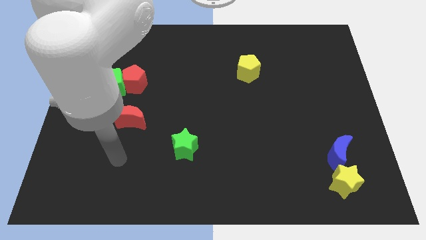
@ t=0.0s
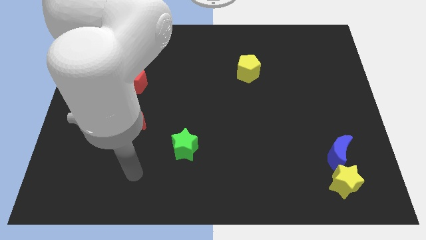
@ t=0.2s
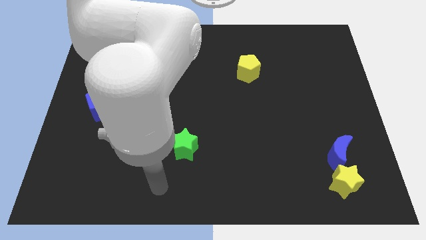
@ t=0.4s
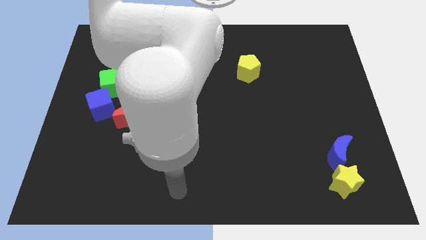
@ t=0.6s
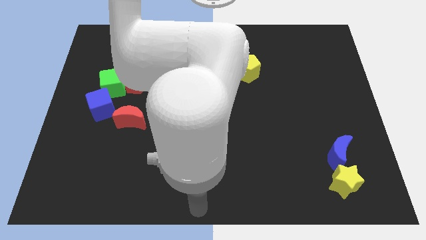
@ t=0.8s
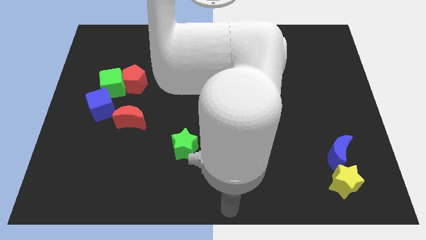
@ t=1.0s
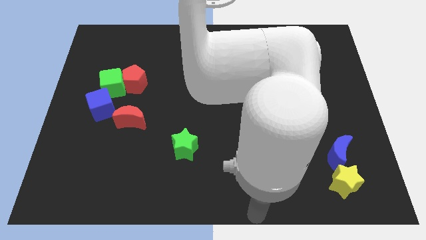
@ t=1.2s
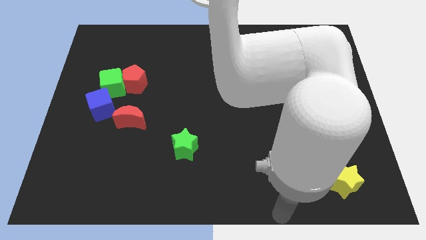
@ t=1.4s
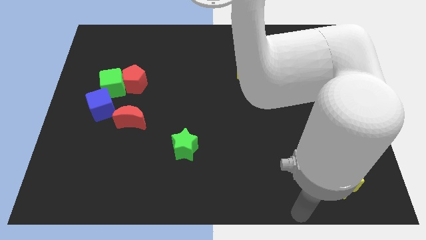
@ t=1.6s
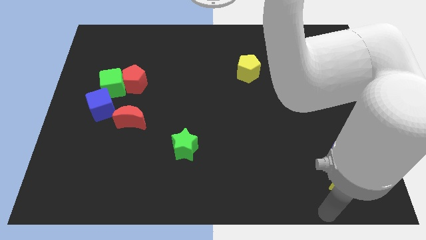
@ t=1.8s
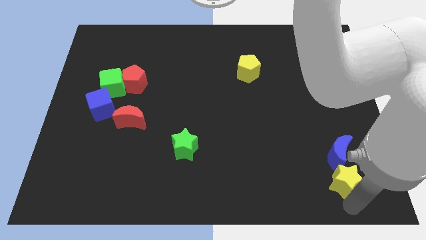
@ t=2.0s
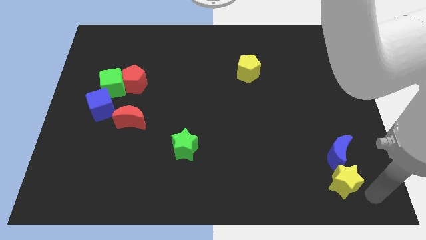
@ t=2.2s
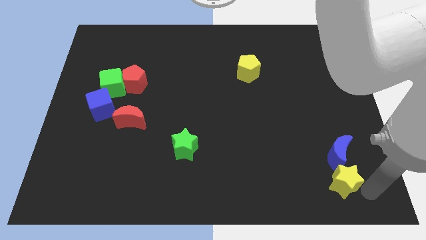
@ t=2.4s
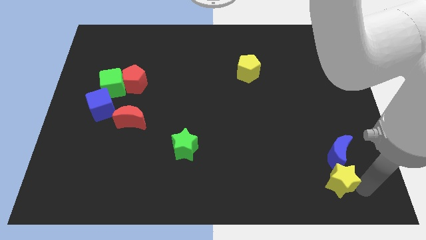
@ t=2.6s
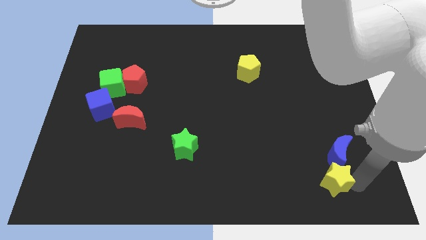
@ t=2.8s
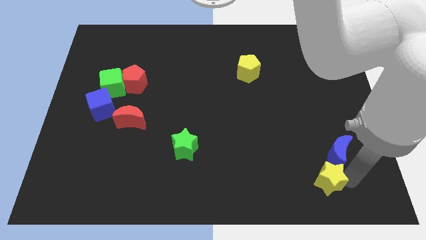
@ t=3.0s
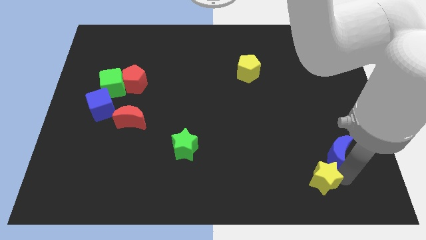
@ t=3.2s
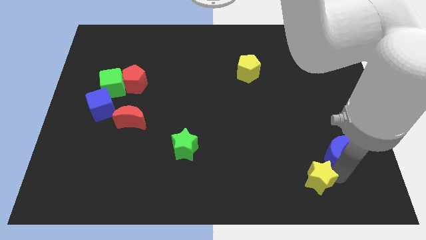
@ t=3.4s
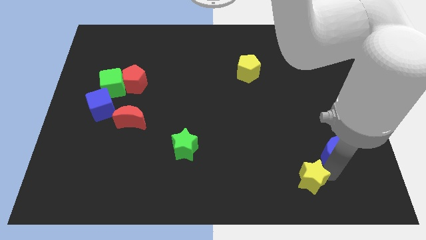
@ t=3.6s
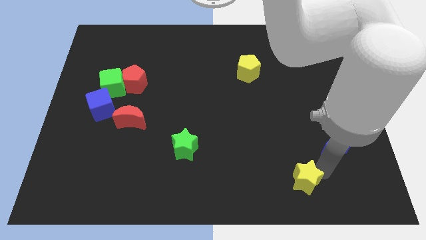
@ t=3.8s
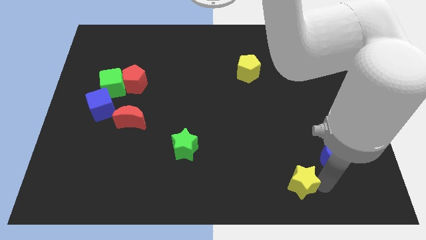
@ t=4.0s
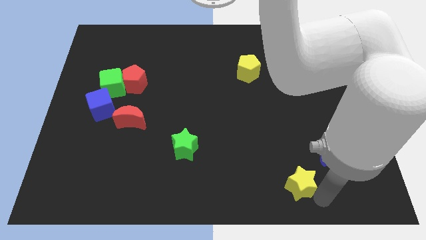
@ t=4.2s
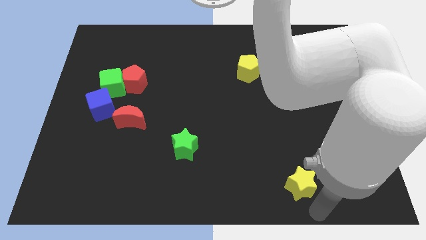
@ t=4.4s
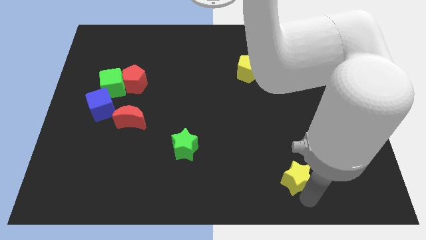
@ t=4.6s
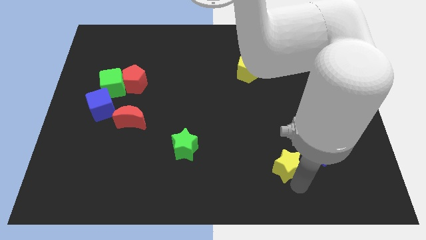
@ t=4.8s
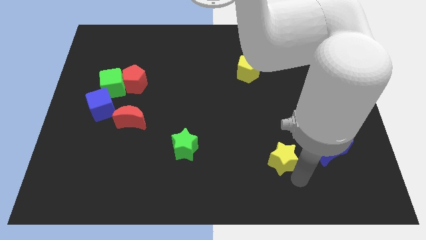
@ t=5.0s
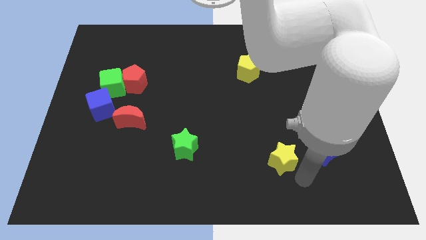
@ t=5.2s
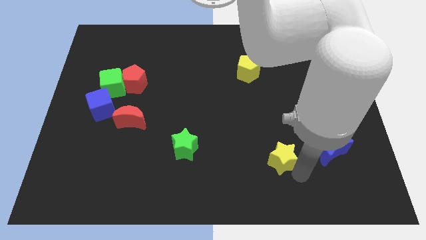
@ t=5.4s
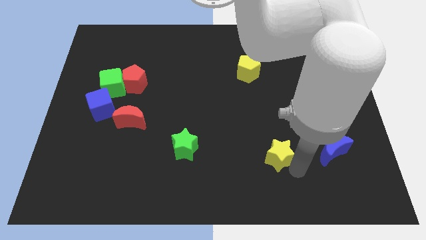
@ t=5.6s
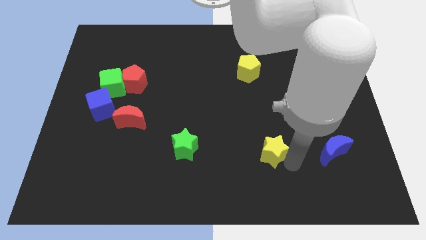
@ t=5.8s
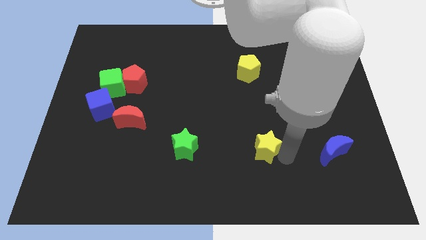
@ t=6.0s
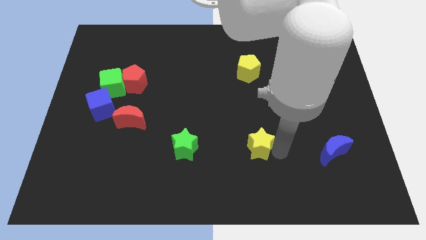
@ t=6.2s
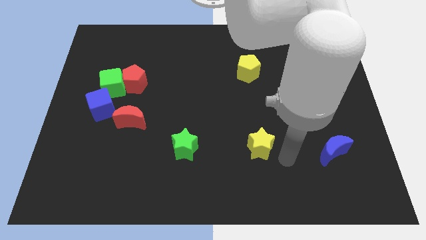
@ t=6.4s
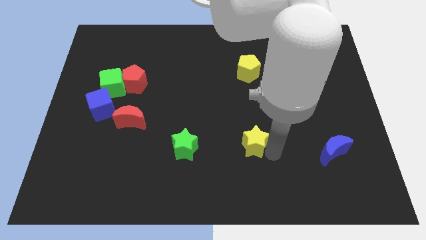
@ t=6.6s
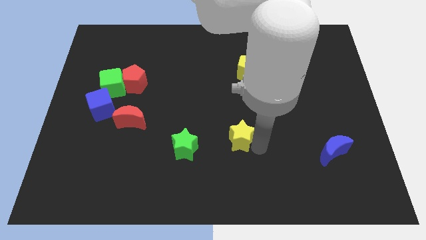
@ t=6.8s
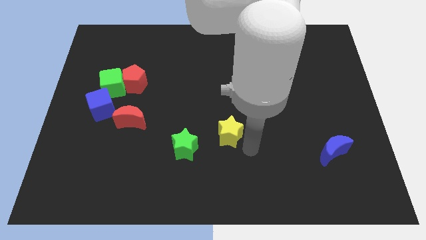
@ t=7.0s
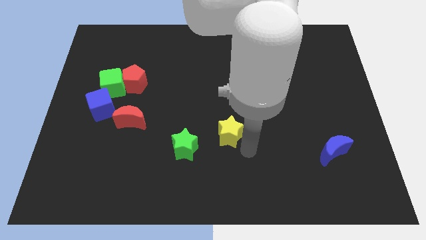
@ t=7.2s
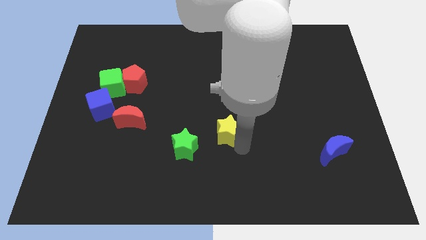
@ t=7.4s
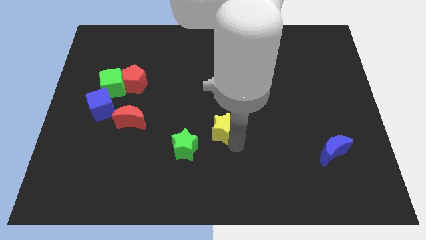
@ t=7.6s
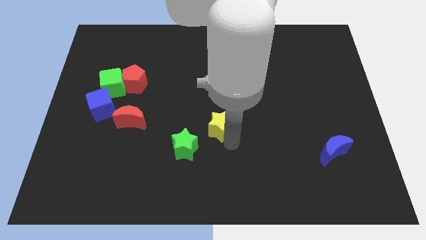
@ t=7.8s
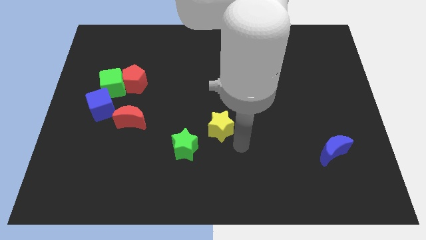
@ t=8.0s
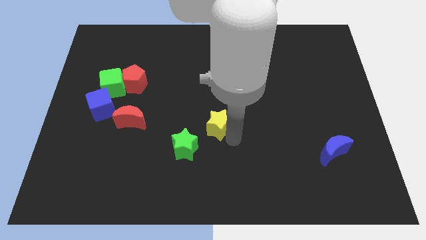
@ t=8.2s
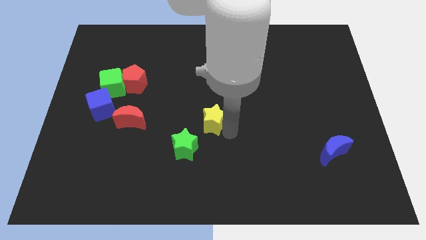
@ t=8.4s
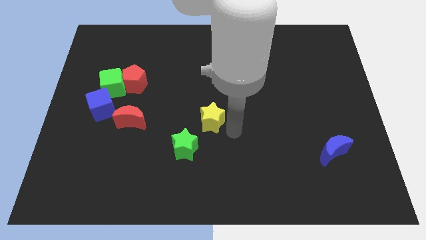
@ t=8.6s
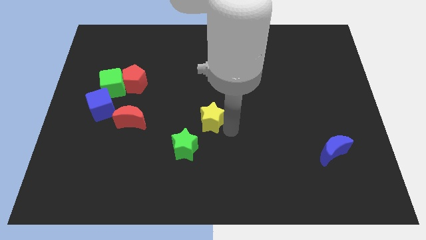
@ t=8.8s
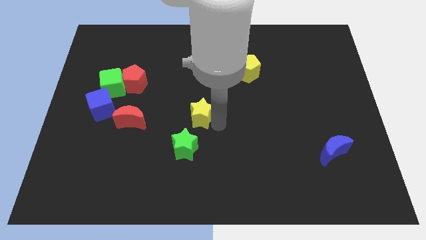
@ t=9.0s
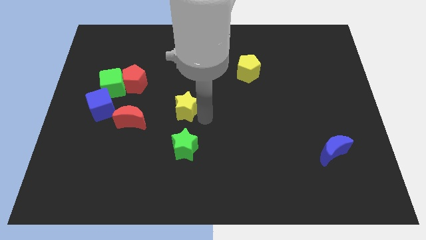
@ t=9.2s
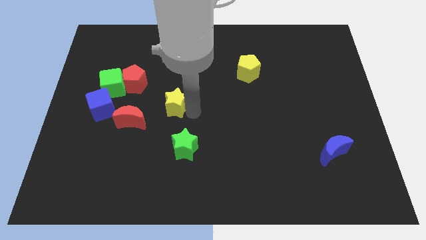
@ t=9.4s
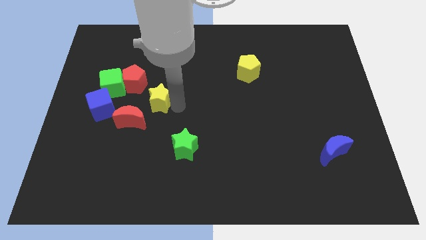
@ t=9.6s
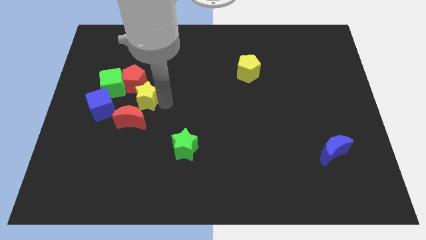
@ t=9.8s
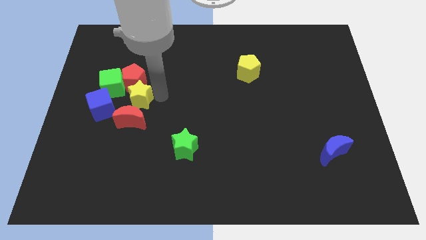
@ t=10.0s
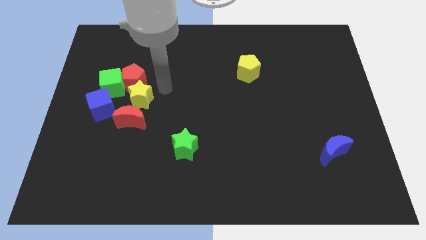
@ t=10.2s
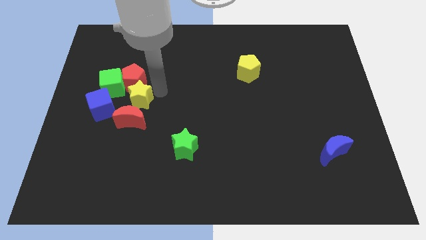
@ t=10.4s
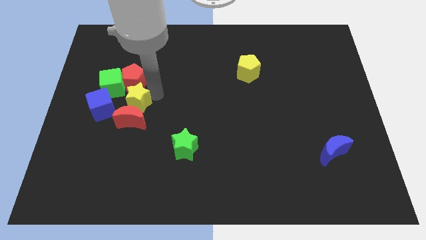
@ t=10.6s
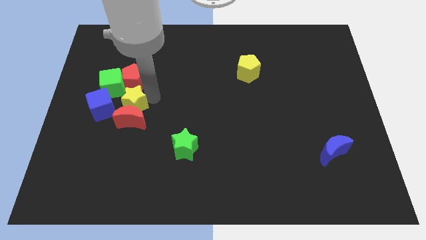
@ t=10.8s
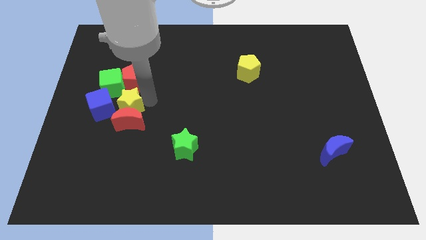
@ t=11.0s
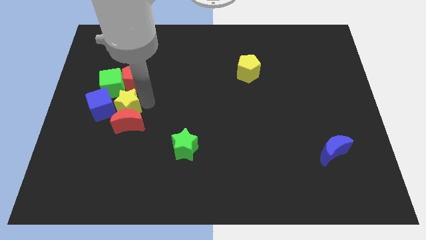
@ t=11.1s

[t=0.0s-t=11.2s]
put the yellow star close to the blue cube

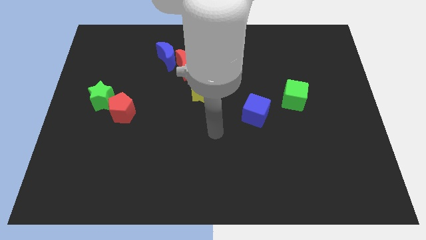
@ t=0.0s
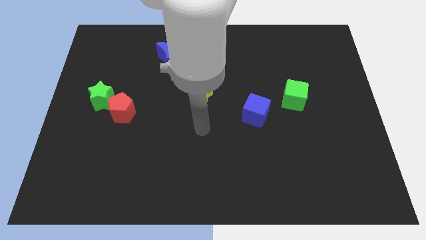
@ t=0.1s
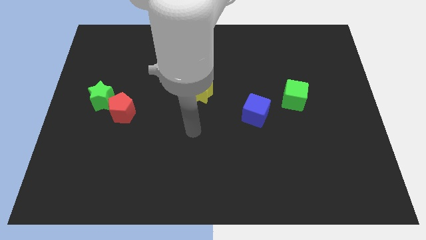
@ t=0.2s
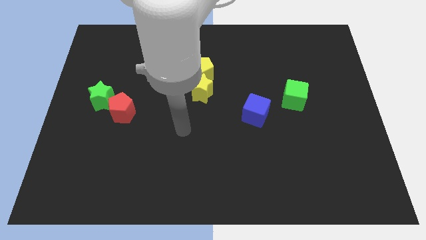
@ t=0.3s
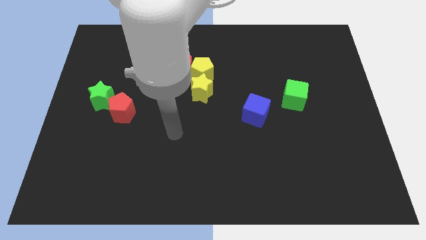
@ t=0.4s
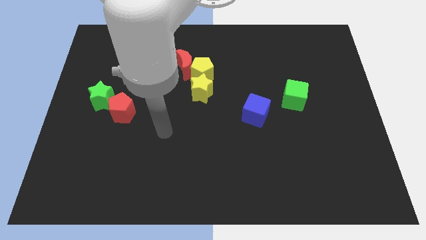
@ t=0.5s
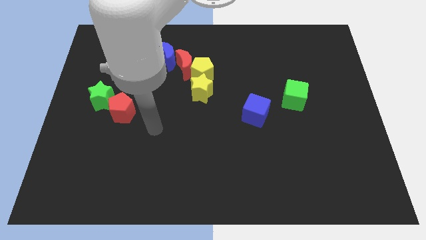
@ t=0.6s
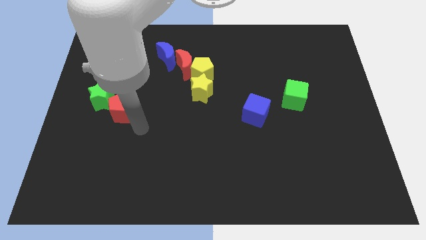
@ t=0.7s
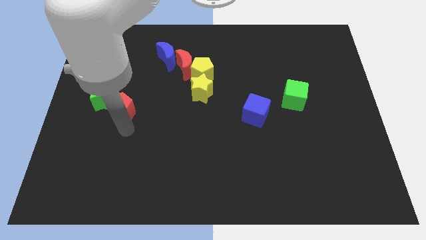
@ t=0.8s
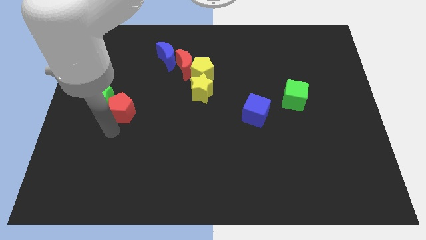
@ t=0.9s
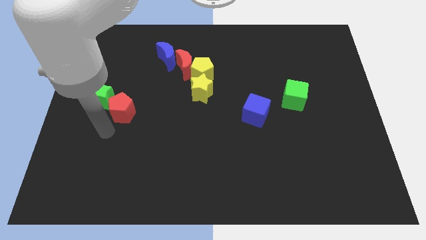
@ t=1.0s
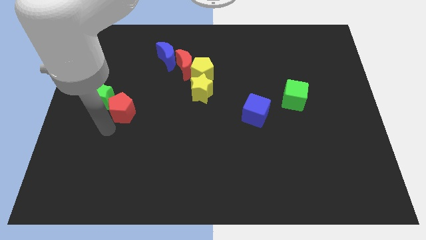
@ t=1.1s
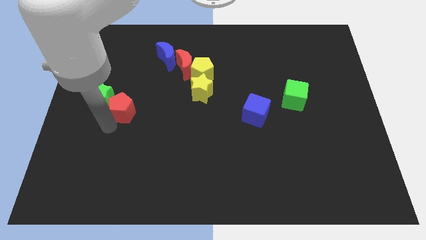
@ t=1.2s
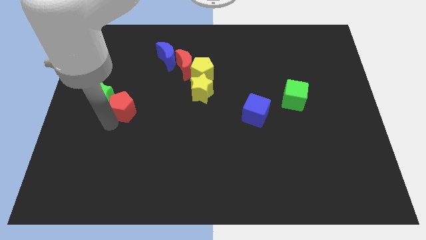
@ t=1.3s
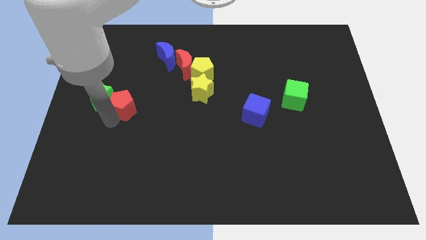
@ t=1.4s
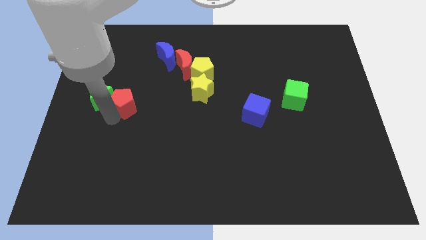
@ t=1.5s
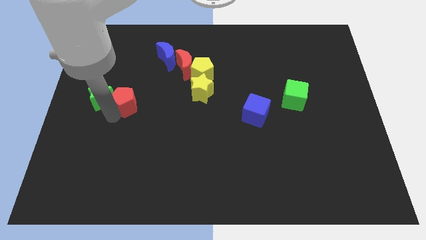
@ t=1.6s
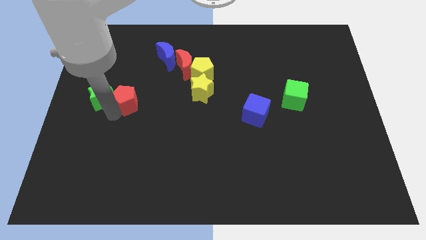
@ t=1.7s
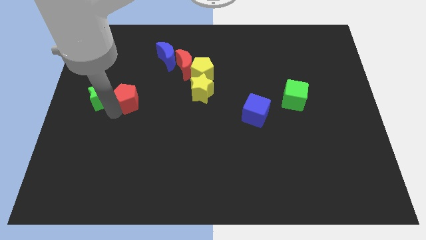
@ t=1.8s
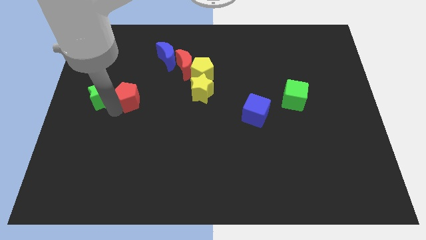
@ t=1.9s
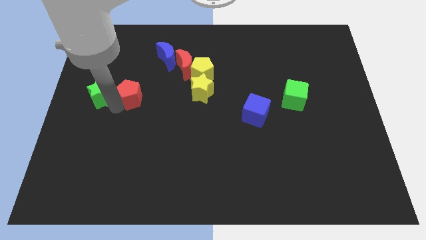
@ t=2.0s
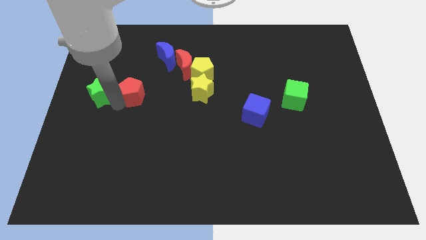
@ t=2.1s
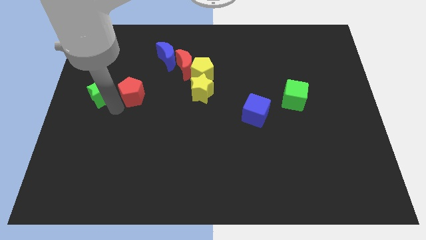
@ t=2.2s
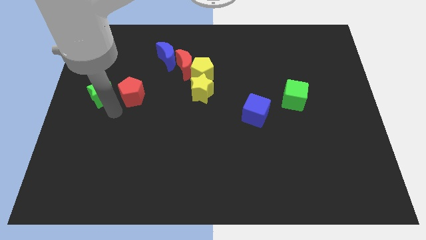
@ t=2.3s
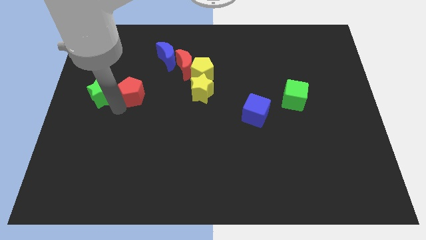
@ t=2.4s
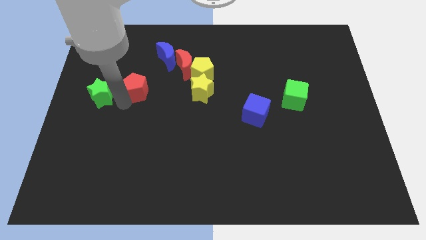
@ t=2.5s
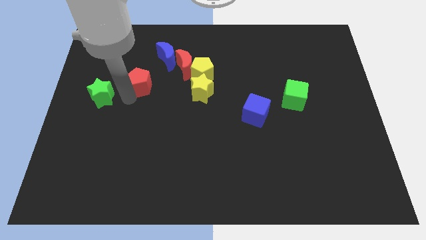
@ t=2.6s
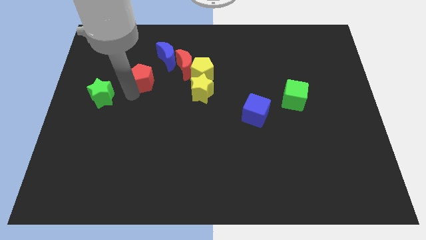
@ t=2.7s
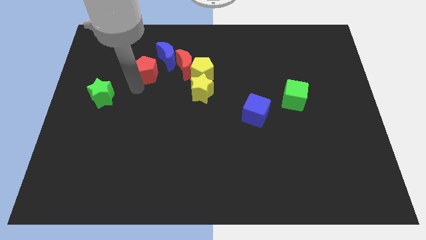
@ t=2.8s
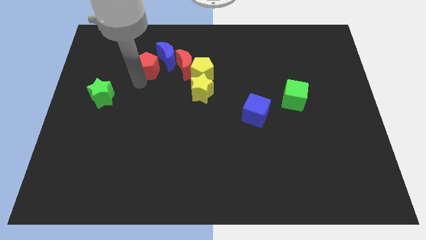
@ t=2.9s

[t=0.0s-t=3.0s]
move the red pentagon close to the blue moon
